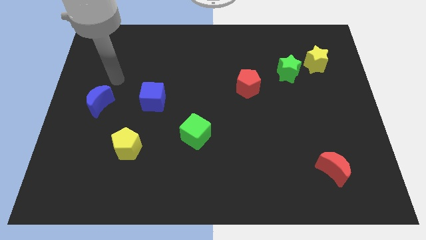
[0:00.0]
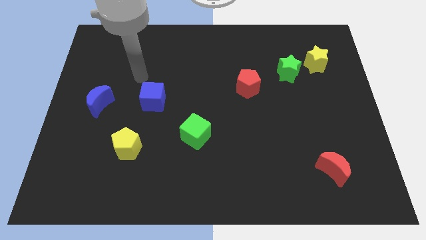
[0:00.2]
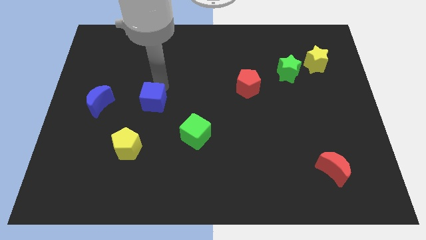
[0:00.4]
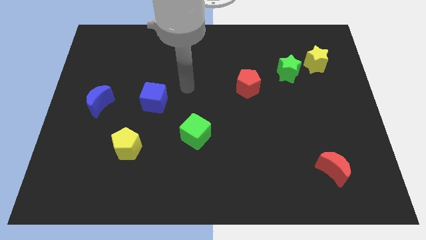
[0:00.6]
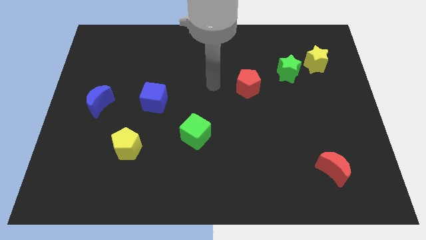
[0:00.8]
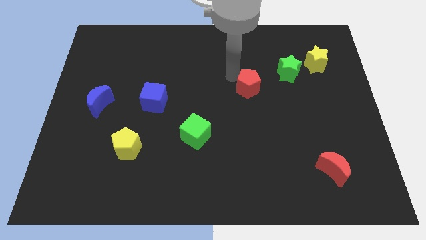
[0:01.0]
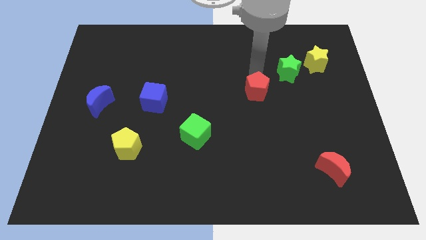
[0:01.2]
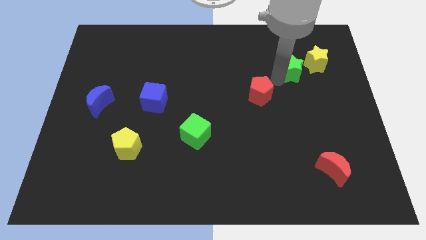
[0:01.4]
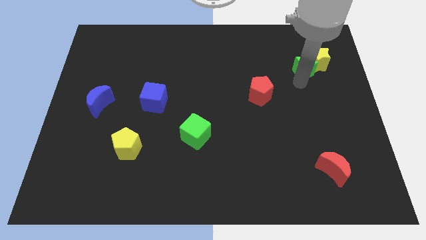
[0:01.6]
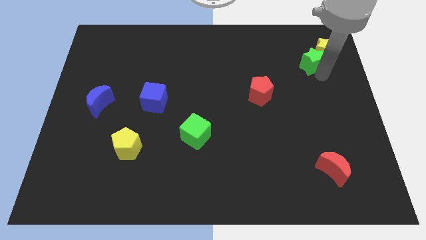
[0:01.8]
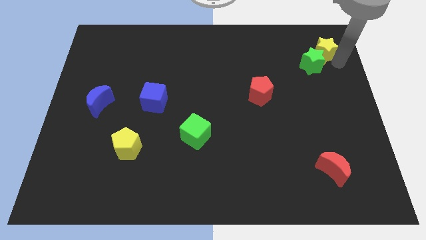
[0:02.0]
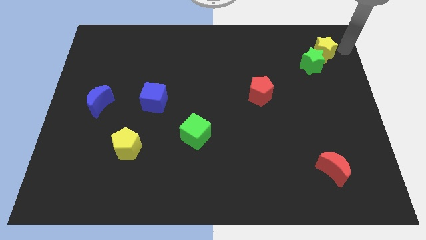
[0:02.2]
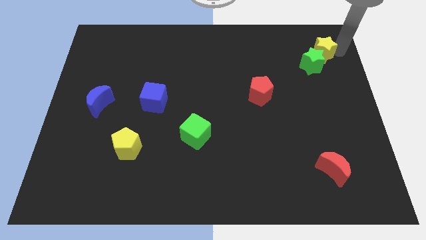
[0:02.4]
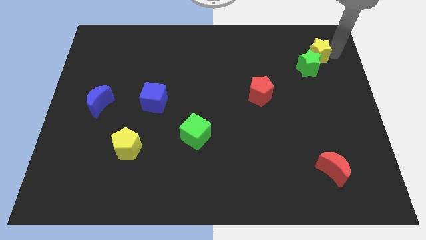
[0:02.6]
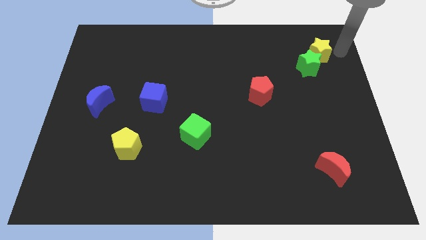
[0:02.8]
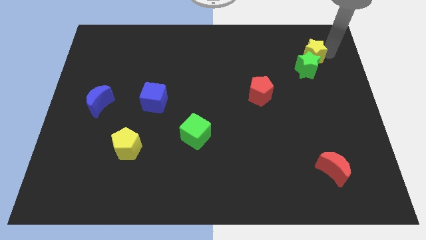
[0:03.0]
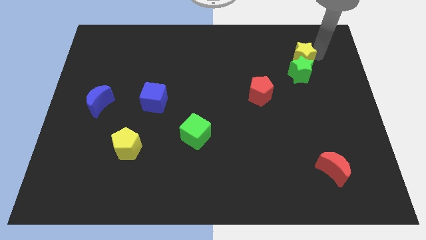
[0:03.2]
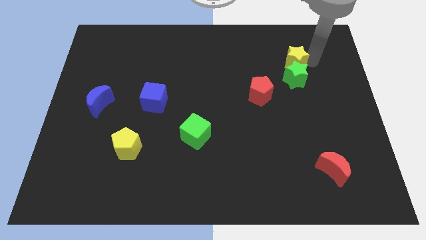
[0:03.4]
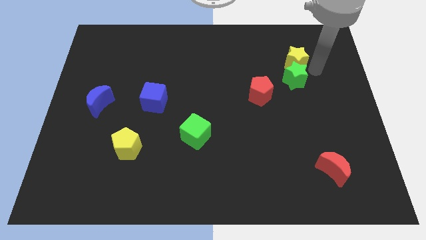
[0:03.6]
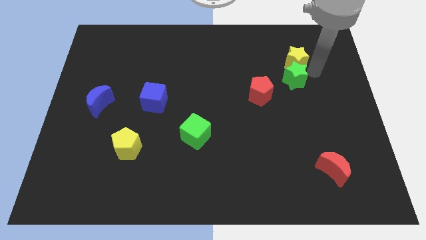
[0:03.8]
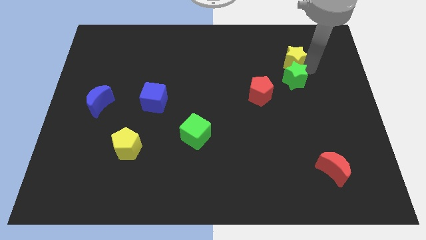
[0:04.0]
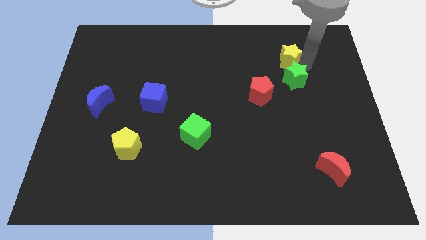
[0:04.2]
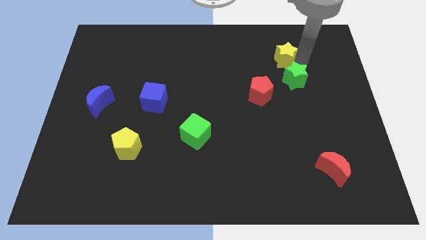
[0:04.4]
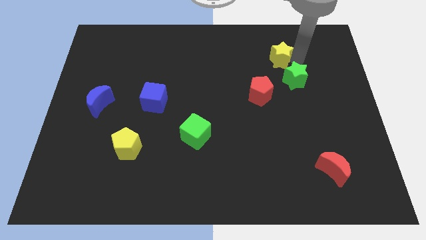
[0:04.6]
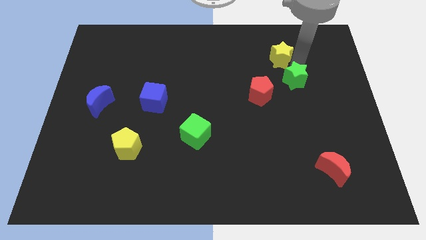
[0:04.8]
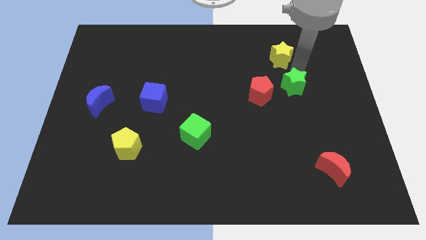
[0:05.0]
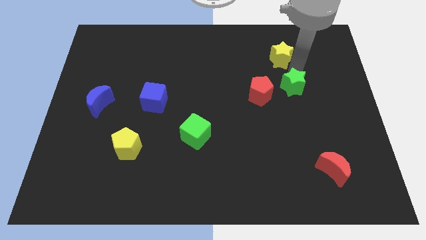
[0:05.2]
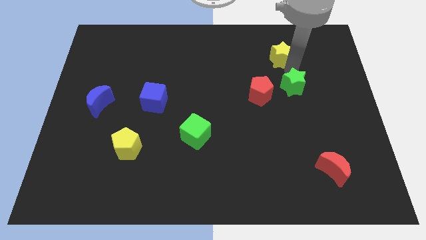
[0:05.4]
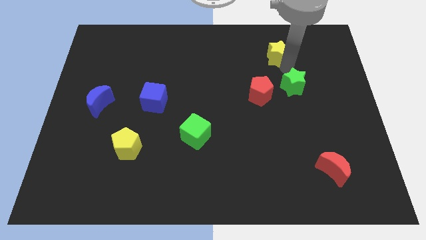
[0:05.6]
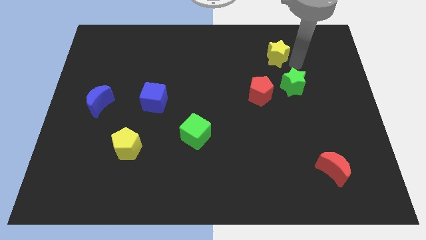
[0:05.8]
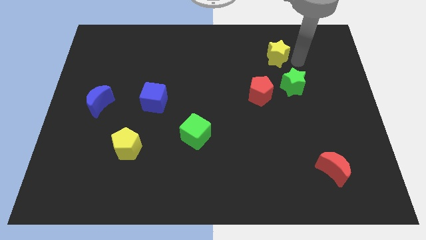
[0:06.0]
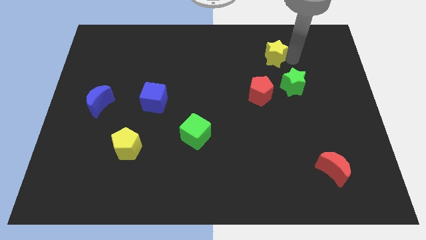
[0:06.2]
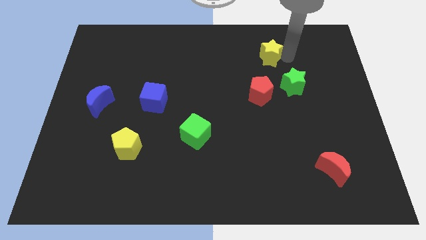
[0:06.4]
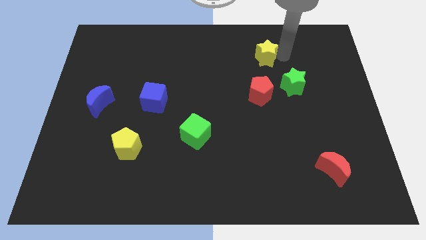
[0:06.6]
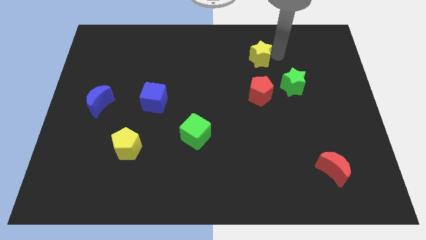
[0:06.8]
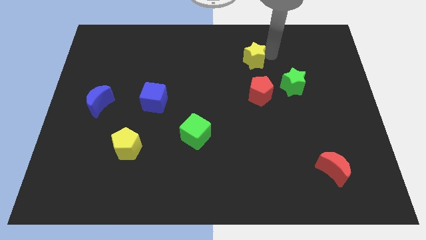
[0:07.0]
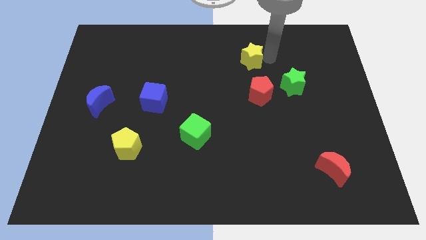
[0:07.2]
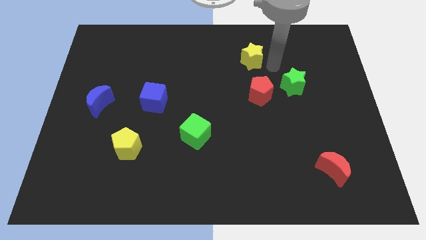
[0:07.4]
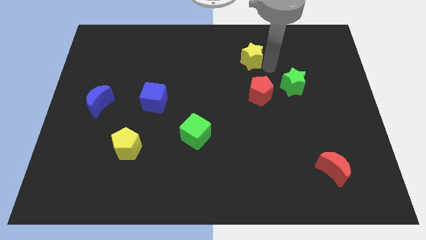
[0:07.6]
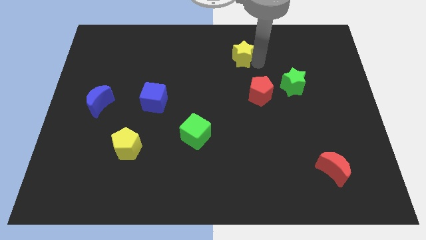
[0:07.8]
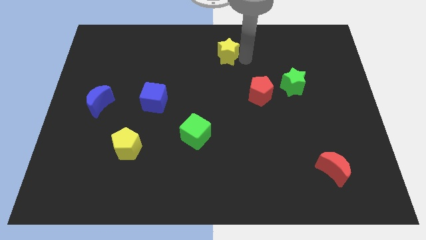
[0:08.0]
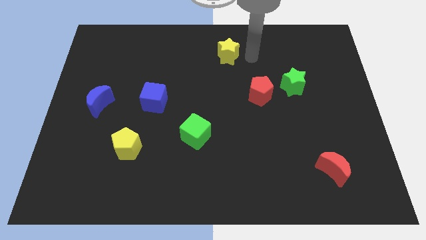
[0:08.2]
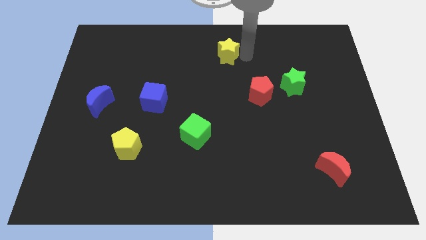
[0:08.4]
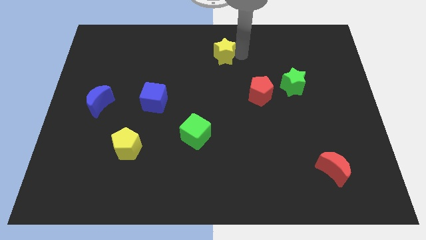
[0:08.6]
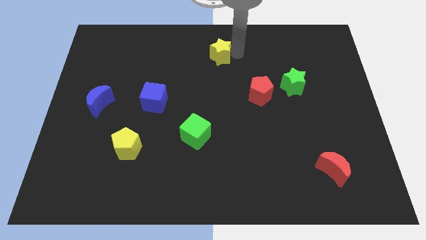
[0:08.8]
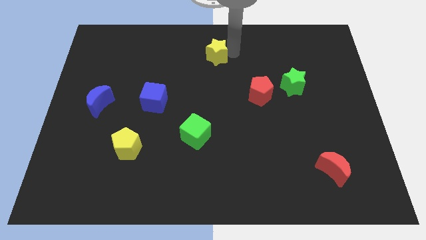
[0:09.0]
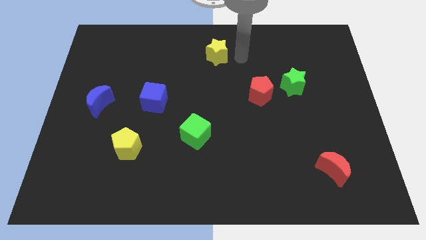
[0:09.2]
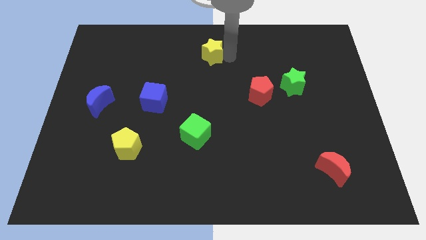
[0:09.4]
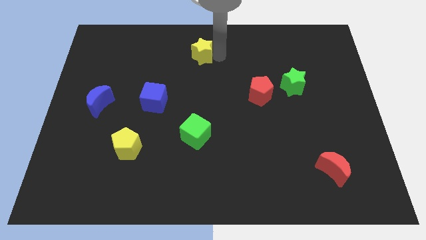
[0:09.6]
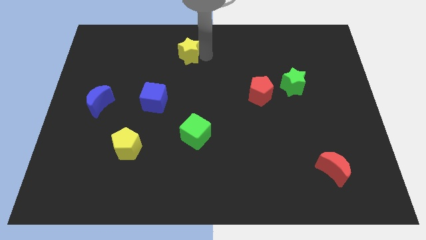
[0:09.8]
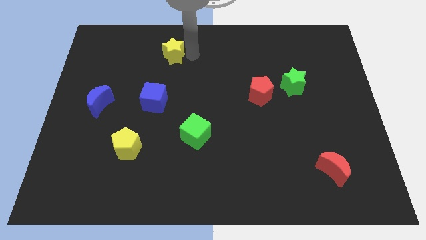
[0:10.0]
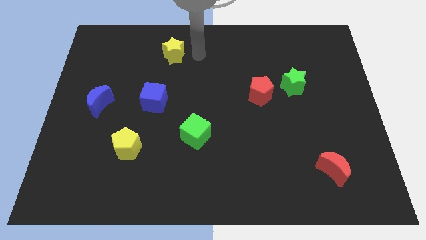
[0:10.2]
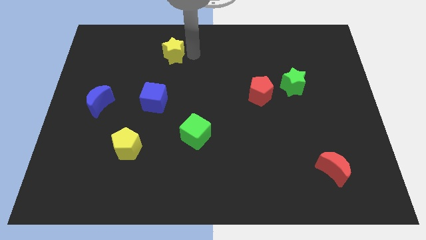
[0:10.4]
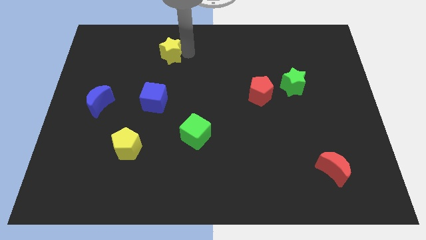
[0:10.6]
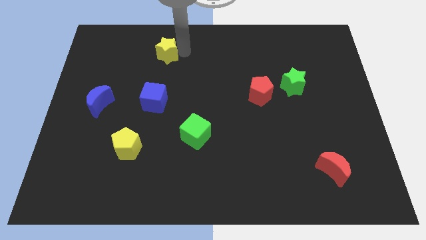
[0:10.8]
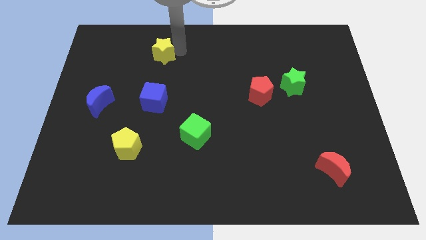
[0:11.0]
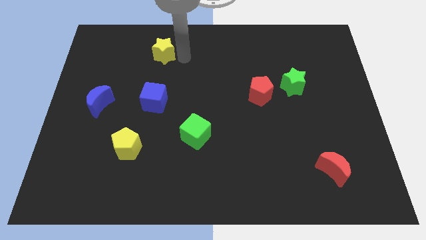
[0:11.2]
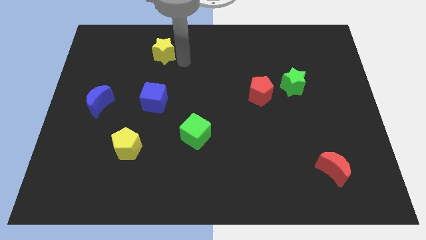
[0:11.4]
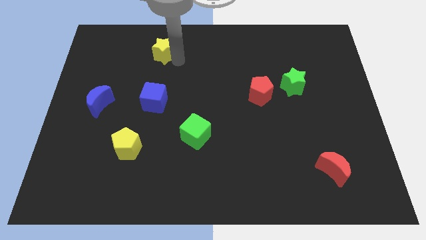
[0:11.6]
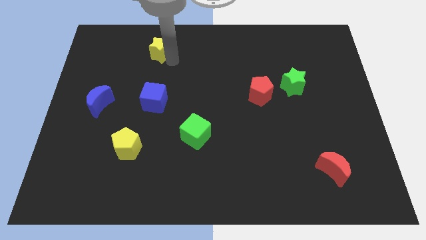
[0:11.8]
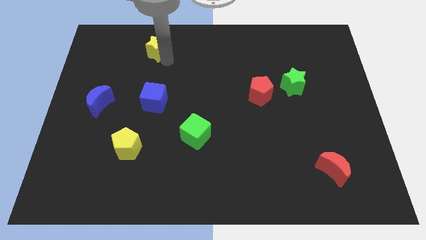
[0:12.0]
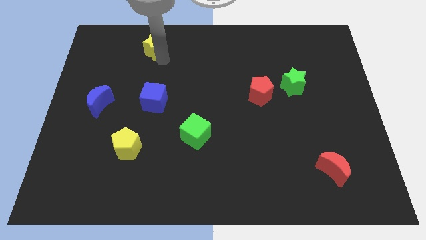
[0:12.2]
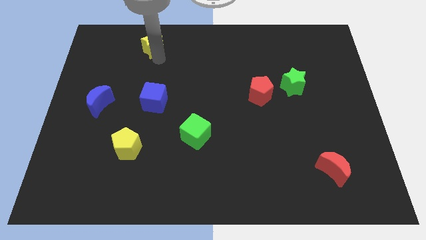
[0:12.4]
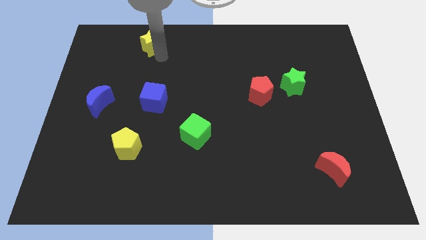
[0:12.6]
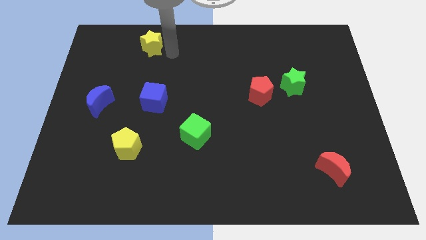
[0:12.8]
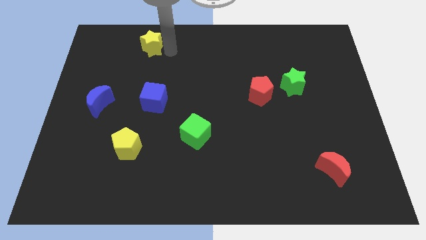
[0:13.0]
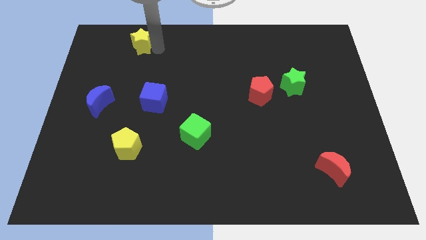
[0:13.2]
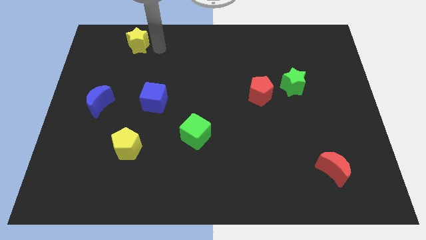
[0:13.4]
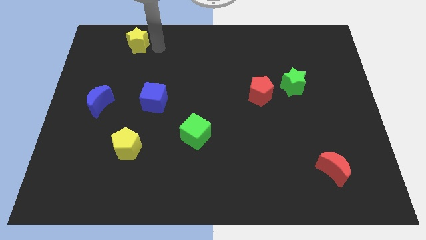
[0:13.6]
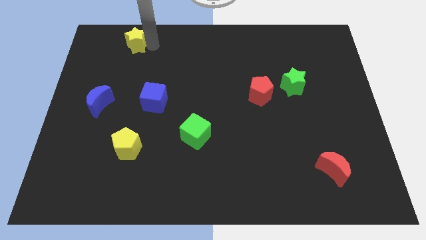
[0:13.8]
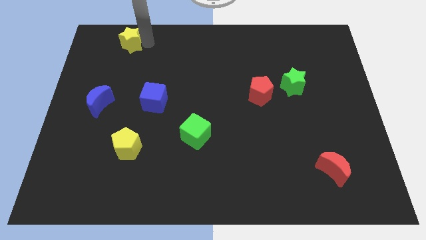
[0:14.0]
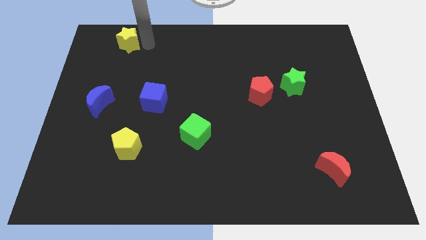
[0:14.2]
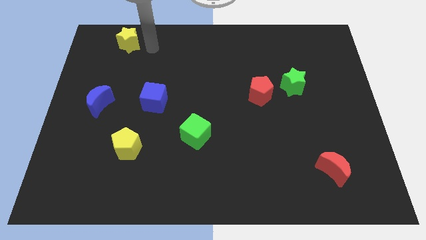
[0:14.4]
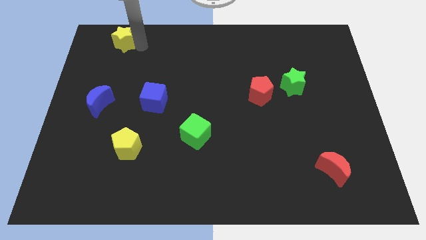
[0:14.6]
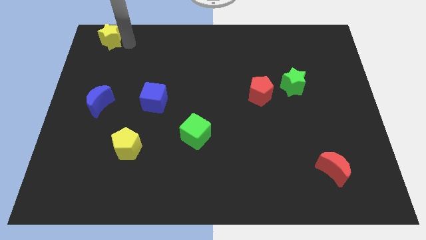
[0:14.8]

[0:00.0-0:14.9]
slide the yellow star to the top left of the board
